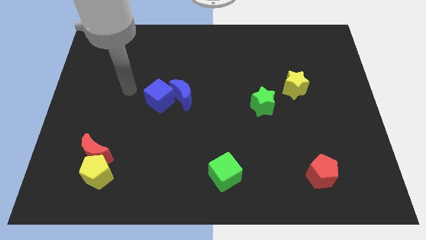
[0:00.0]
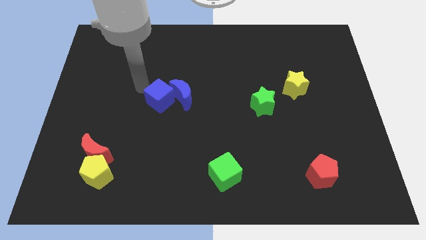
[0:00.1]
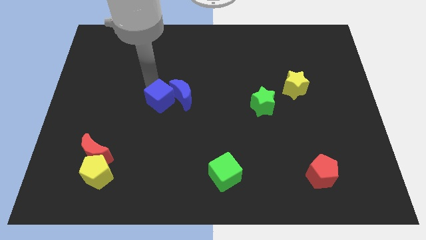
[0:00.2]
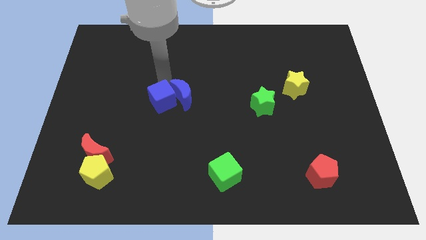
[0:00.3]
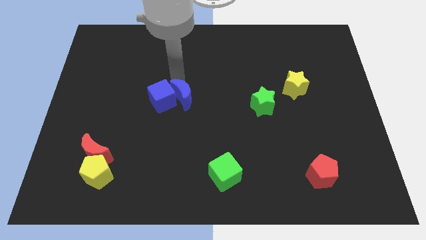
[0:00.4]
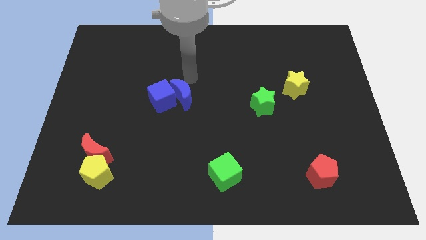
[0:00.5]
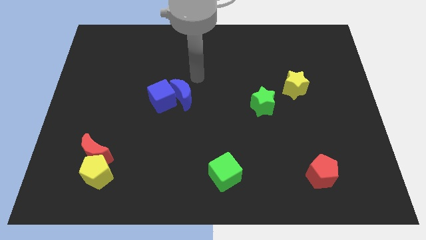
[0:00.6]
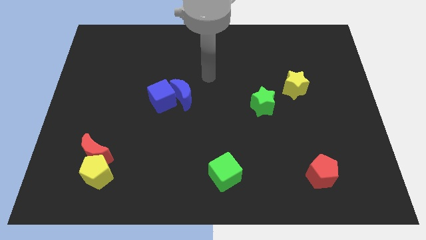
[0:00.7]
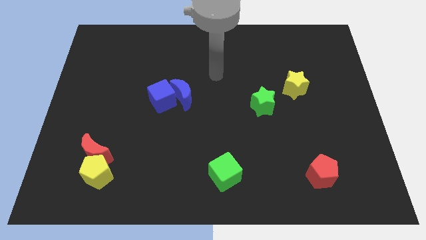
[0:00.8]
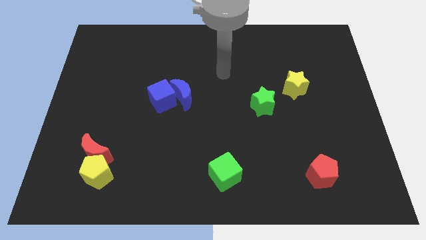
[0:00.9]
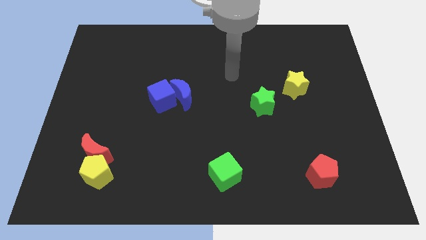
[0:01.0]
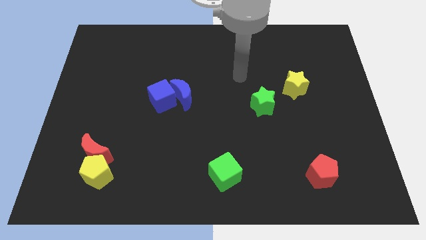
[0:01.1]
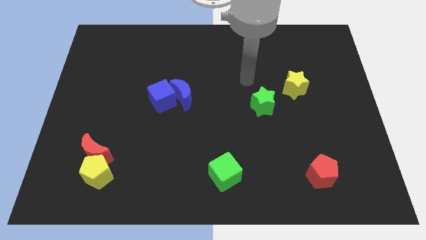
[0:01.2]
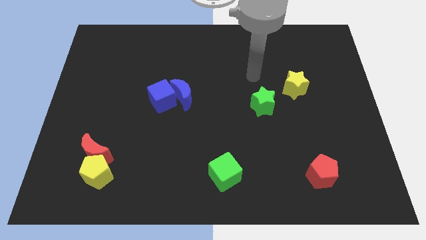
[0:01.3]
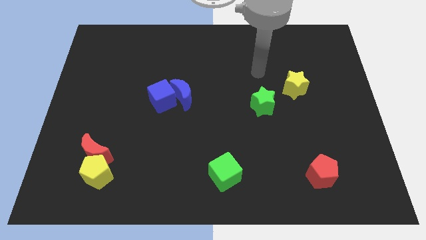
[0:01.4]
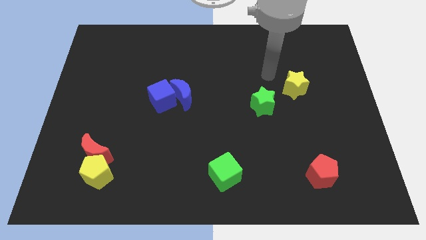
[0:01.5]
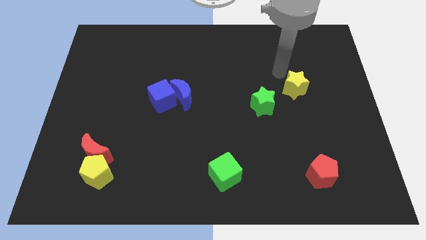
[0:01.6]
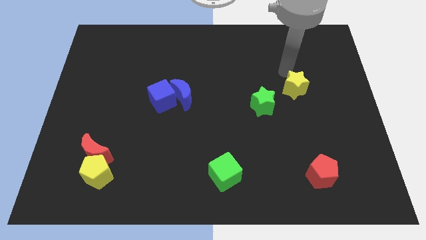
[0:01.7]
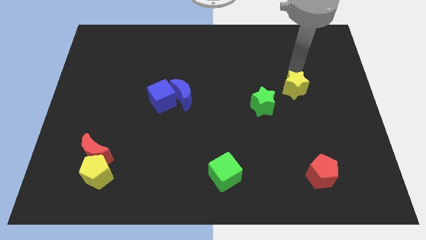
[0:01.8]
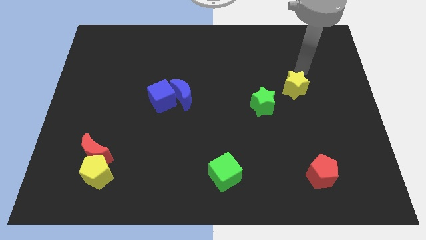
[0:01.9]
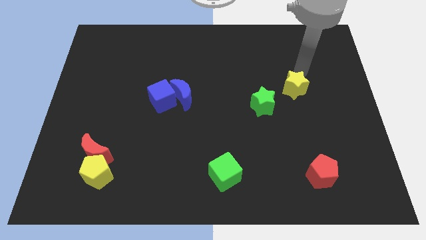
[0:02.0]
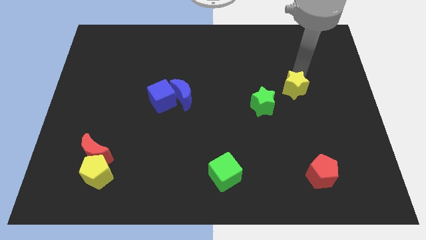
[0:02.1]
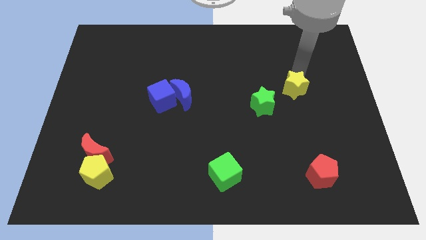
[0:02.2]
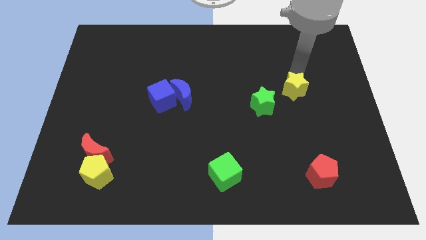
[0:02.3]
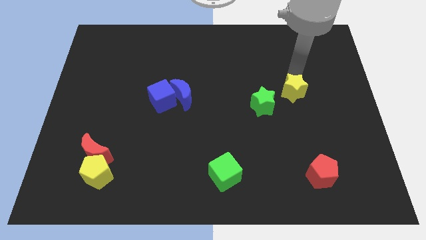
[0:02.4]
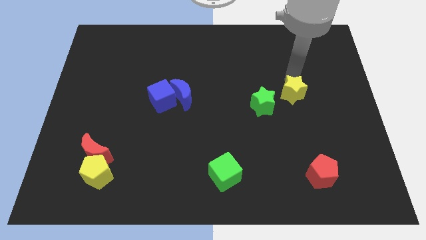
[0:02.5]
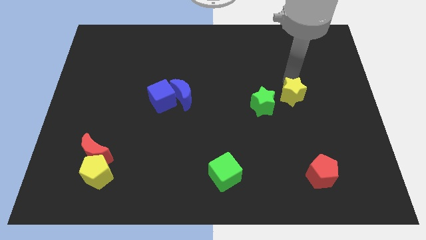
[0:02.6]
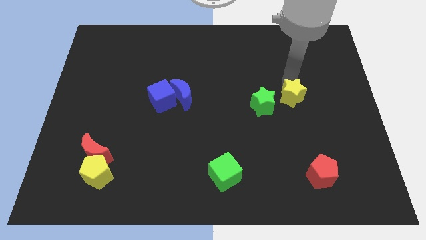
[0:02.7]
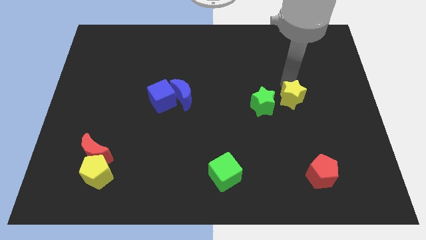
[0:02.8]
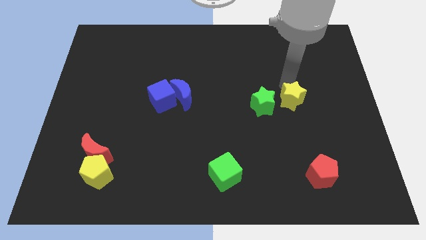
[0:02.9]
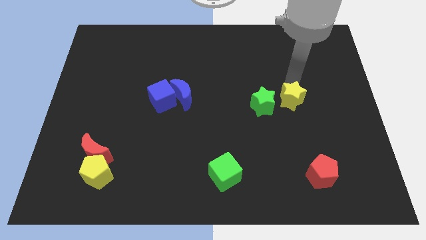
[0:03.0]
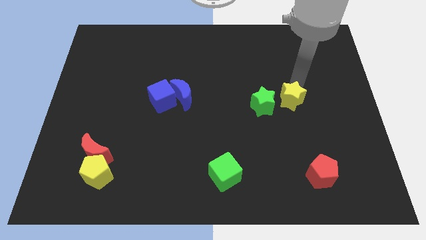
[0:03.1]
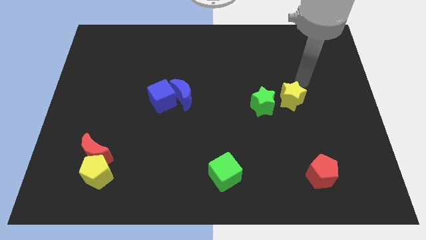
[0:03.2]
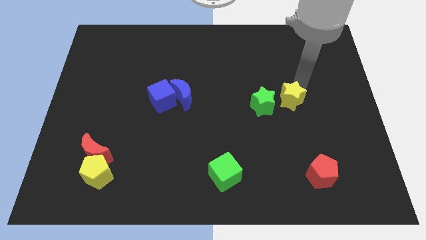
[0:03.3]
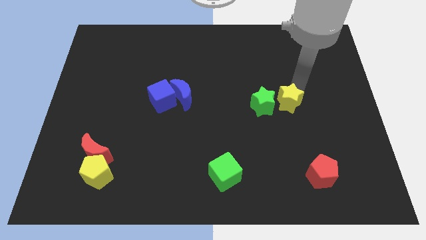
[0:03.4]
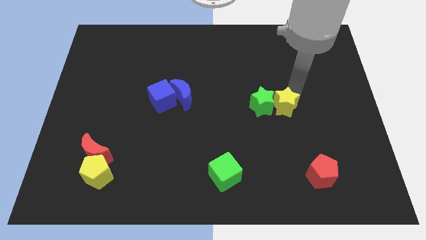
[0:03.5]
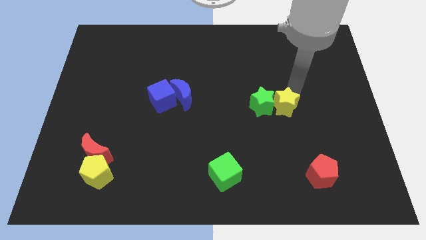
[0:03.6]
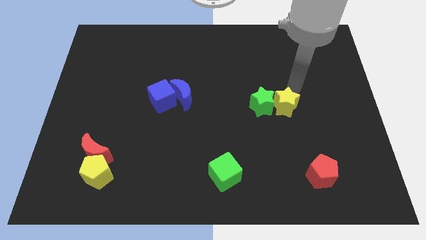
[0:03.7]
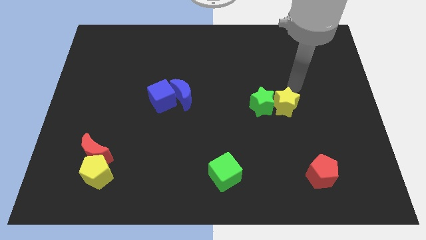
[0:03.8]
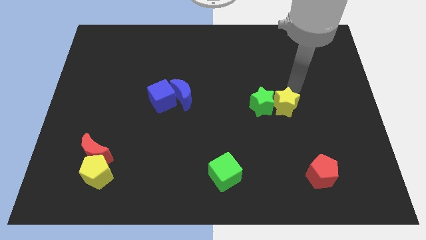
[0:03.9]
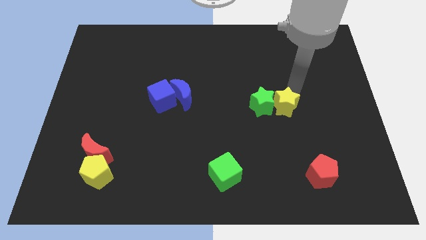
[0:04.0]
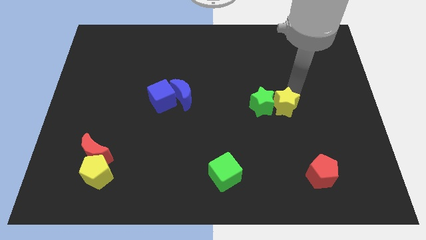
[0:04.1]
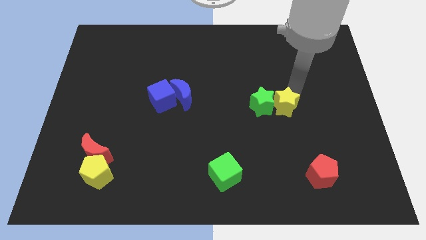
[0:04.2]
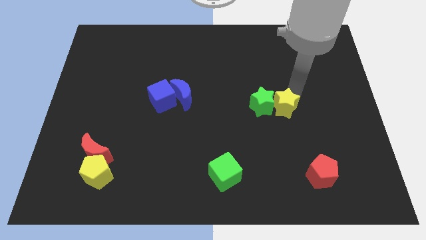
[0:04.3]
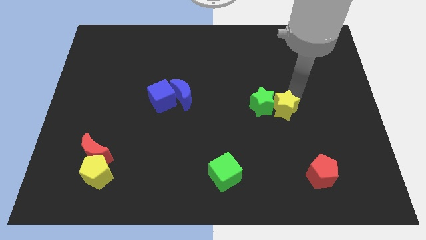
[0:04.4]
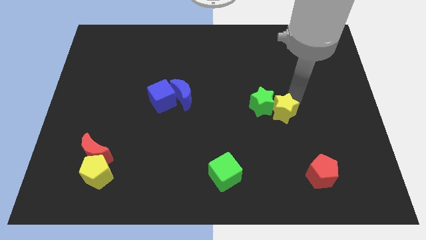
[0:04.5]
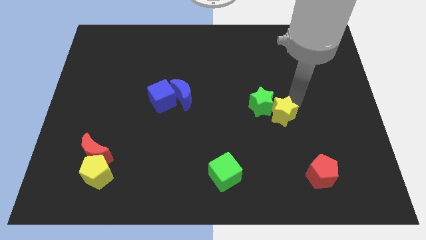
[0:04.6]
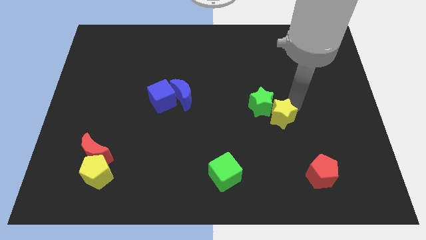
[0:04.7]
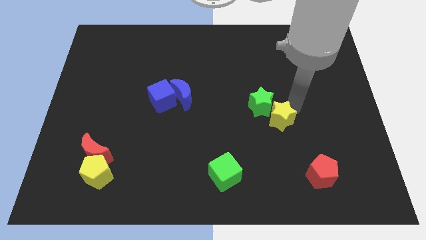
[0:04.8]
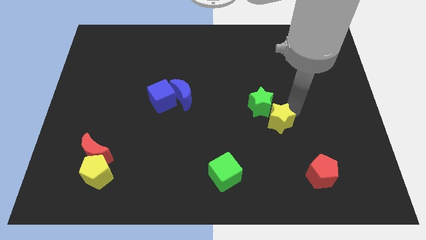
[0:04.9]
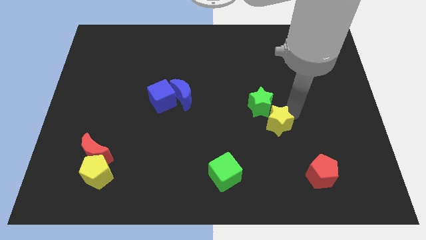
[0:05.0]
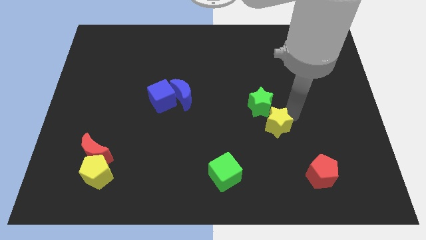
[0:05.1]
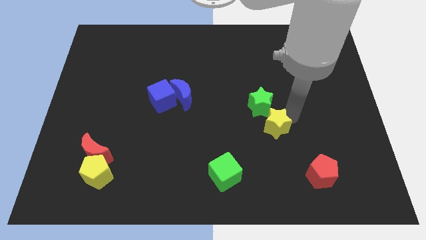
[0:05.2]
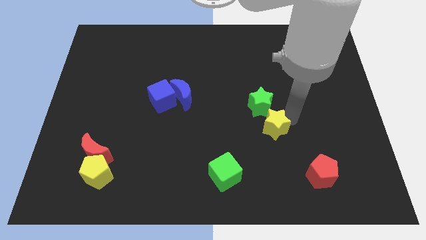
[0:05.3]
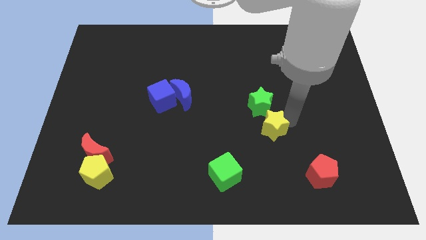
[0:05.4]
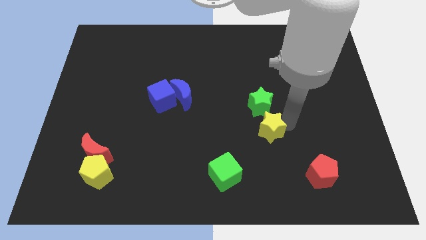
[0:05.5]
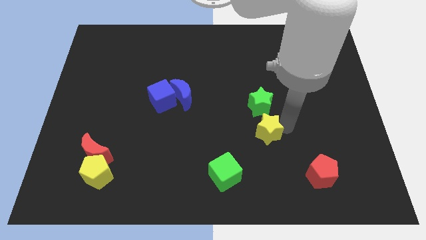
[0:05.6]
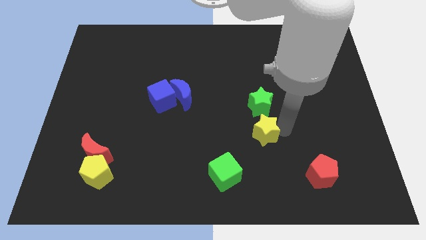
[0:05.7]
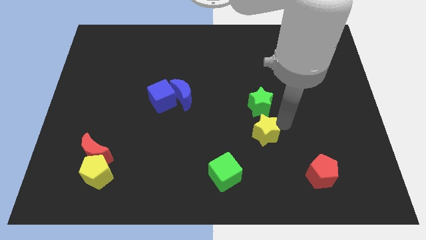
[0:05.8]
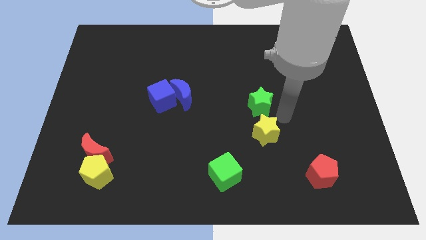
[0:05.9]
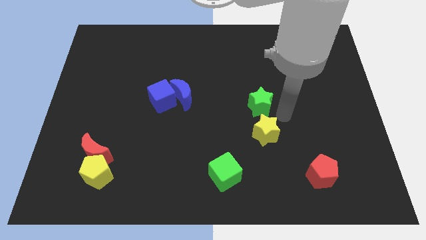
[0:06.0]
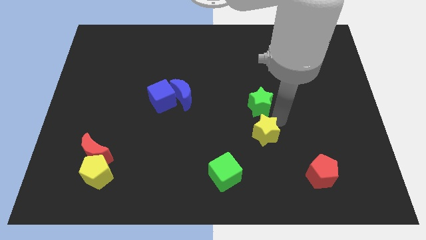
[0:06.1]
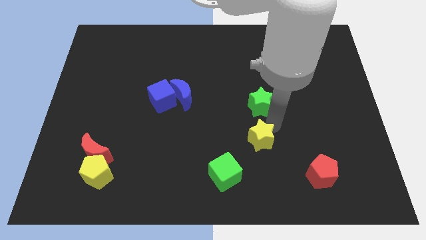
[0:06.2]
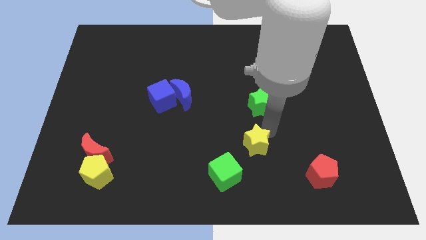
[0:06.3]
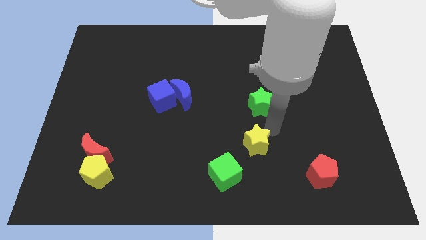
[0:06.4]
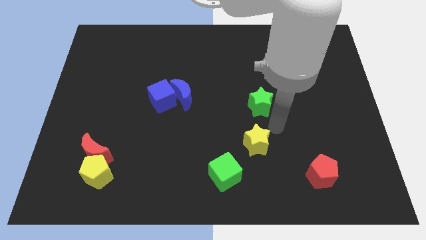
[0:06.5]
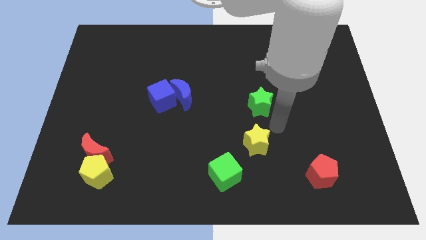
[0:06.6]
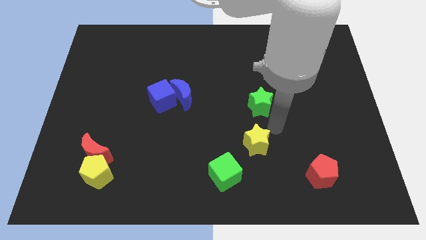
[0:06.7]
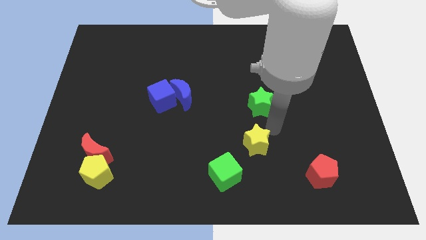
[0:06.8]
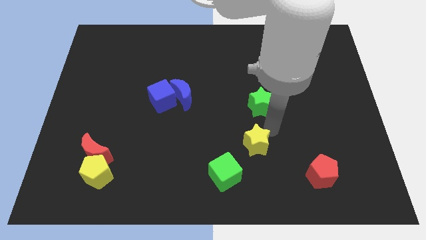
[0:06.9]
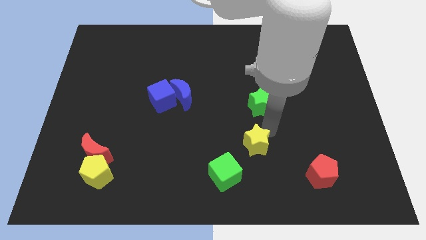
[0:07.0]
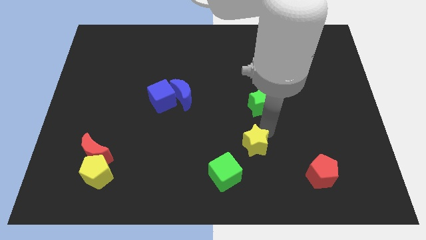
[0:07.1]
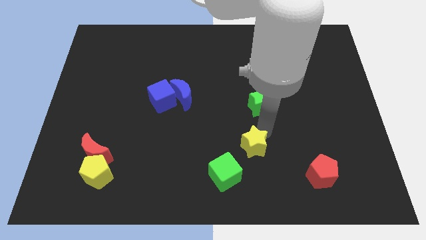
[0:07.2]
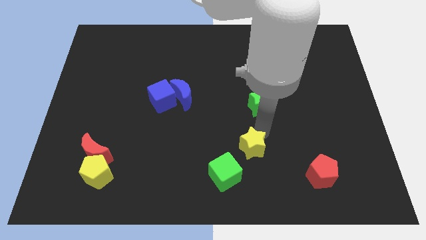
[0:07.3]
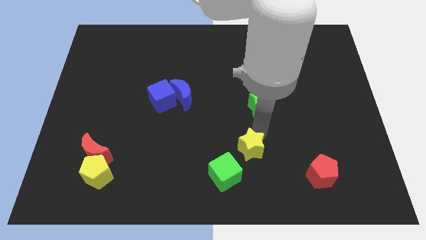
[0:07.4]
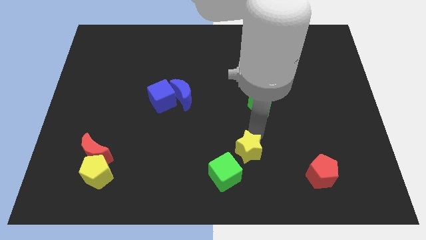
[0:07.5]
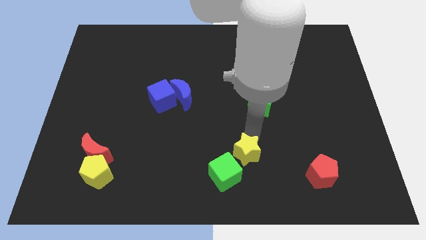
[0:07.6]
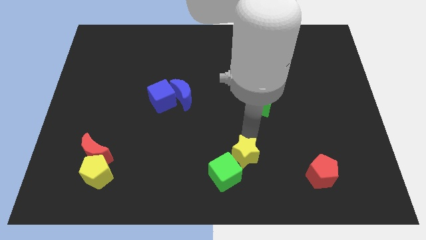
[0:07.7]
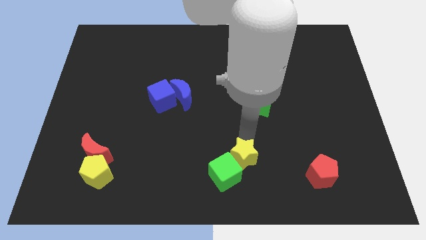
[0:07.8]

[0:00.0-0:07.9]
slide the yellow star close to the green cube
